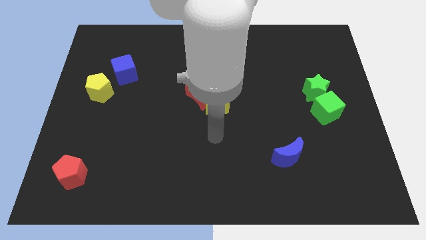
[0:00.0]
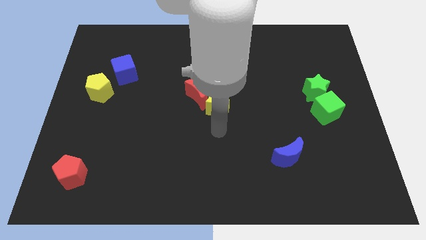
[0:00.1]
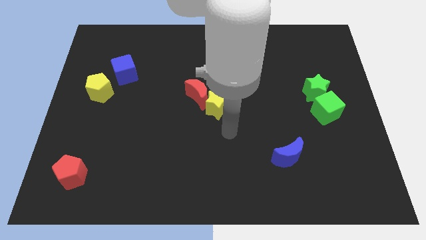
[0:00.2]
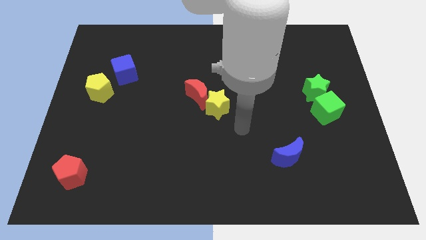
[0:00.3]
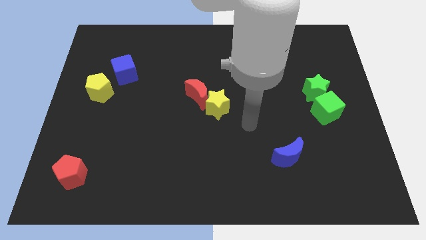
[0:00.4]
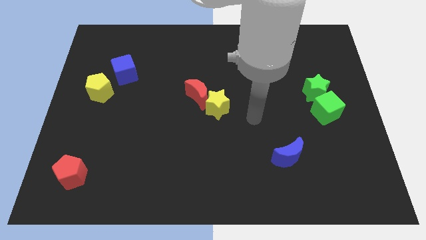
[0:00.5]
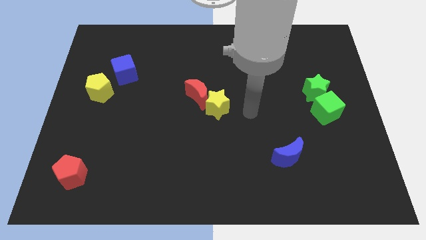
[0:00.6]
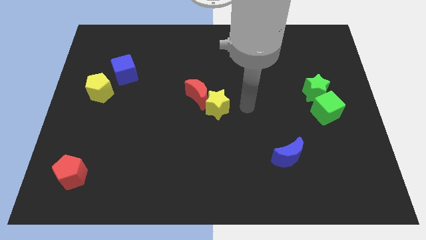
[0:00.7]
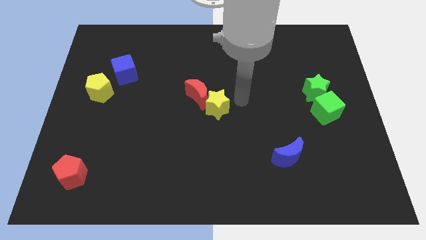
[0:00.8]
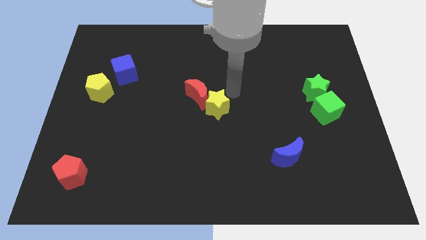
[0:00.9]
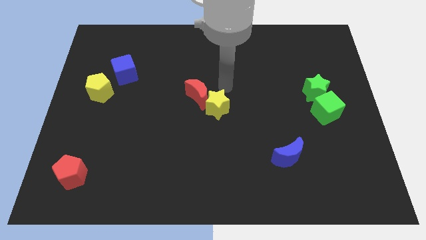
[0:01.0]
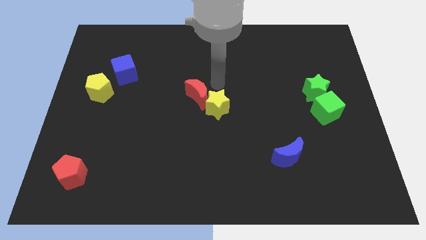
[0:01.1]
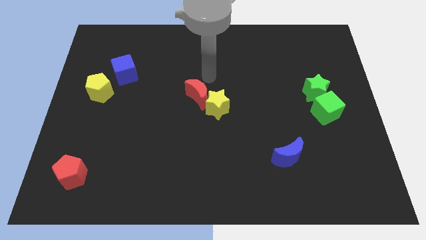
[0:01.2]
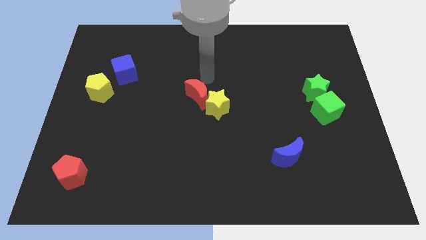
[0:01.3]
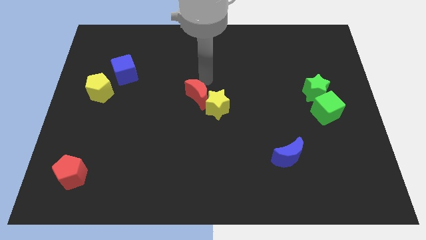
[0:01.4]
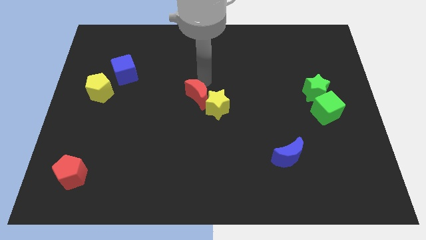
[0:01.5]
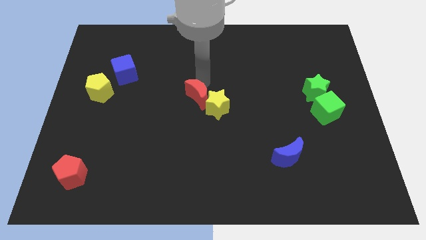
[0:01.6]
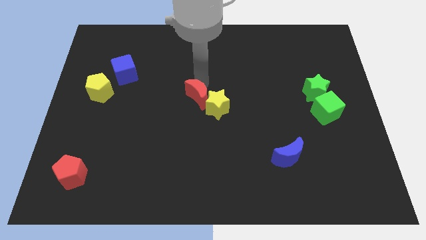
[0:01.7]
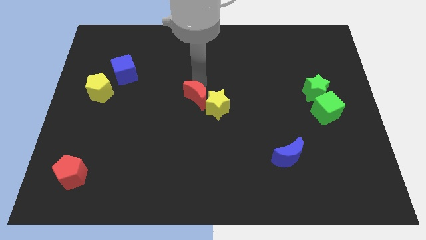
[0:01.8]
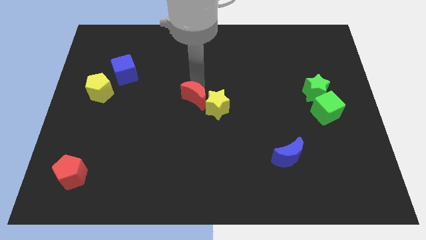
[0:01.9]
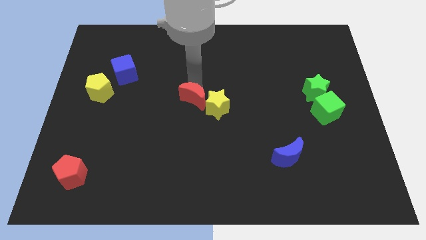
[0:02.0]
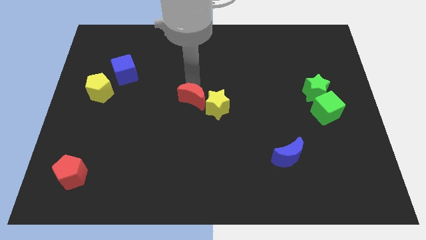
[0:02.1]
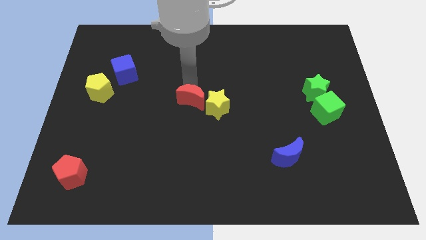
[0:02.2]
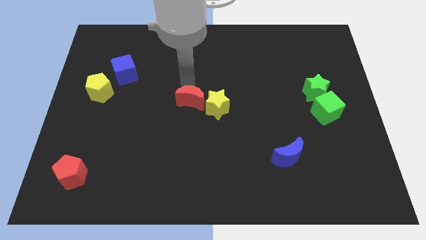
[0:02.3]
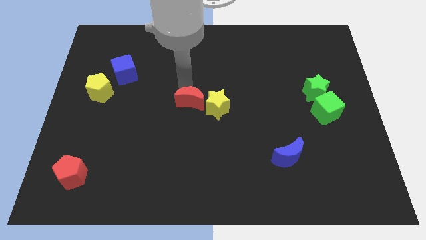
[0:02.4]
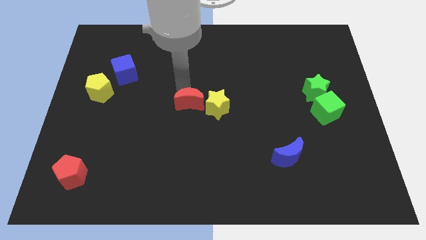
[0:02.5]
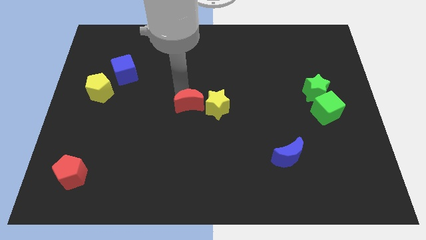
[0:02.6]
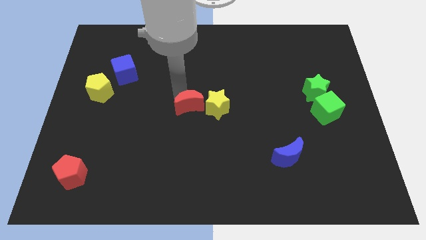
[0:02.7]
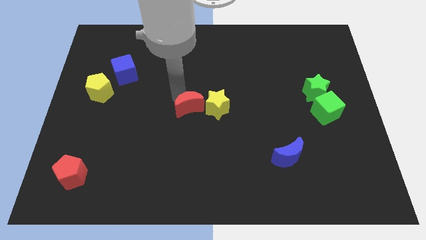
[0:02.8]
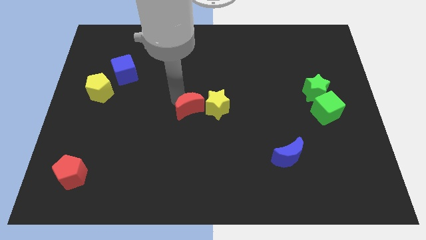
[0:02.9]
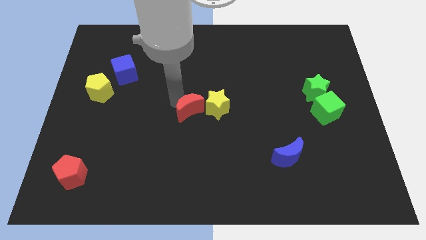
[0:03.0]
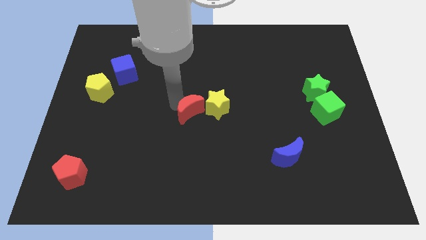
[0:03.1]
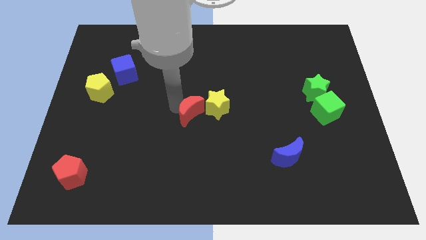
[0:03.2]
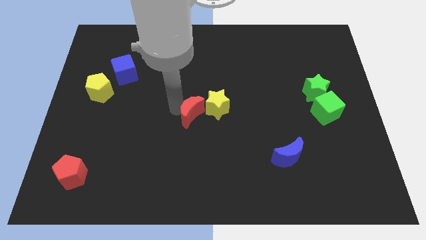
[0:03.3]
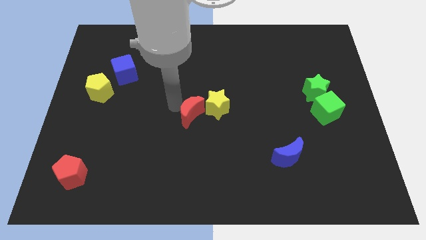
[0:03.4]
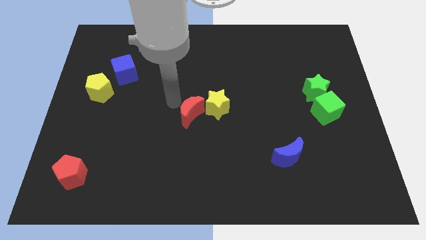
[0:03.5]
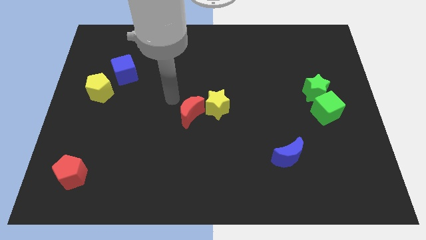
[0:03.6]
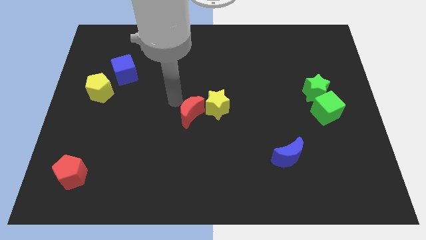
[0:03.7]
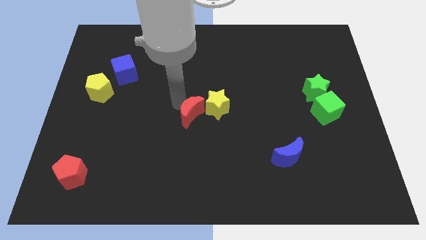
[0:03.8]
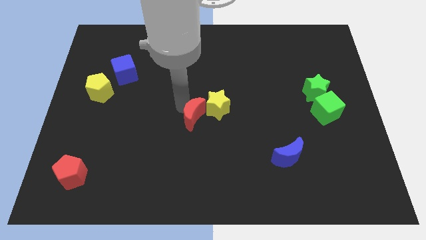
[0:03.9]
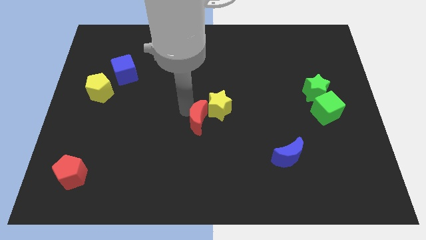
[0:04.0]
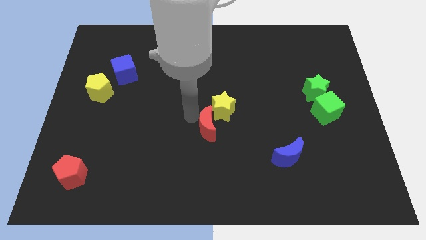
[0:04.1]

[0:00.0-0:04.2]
push the red moon a little downwards and then to the right

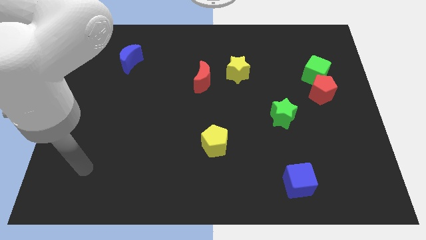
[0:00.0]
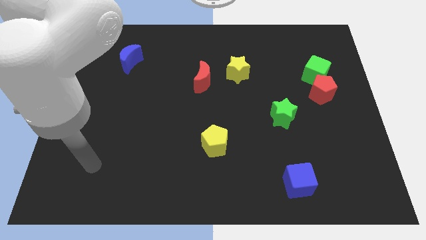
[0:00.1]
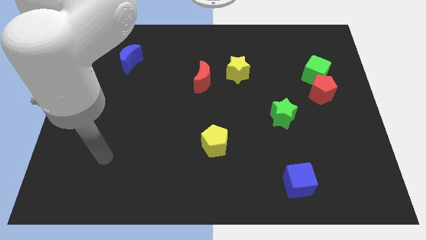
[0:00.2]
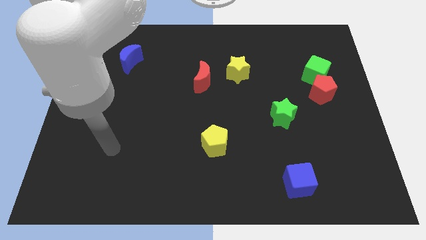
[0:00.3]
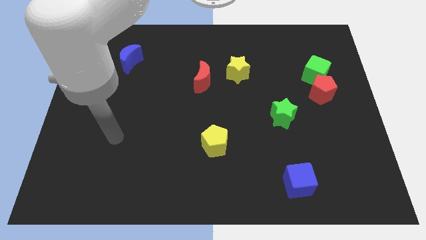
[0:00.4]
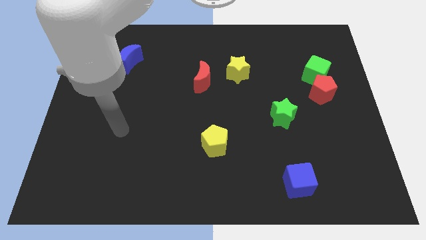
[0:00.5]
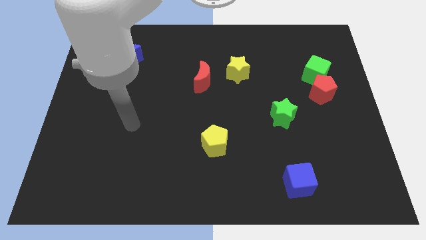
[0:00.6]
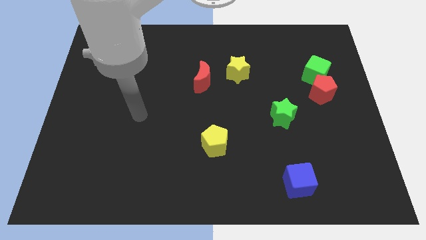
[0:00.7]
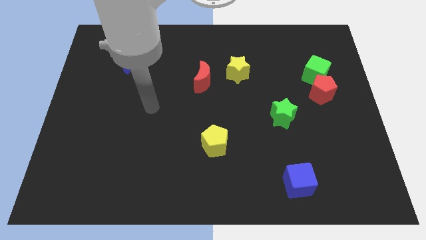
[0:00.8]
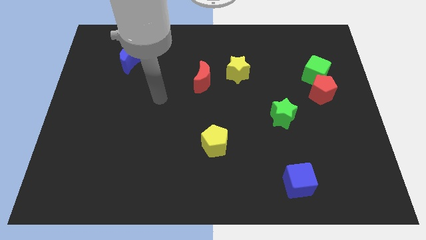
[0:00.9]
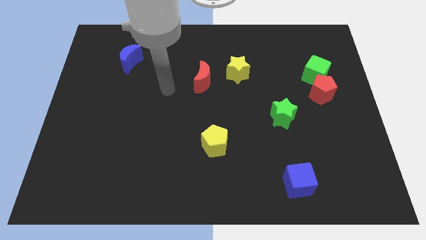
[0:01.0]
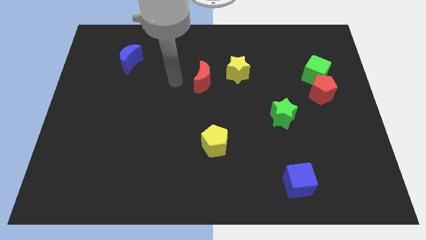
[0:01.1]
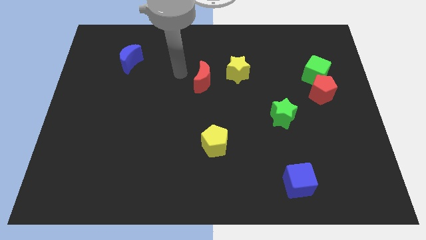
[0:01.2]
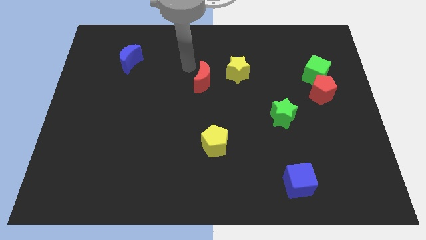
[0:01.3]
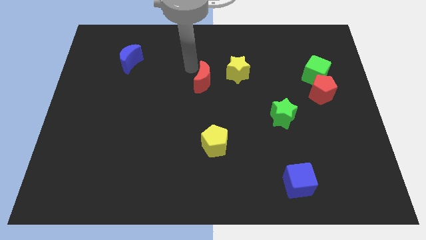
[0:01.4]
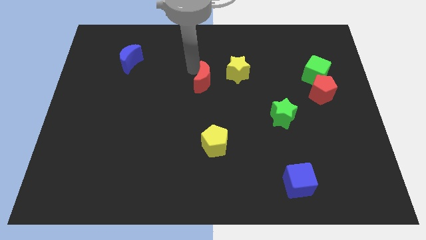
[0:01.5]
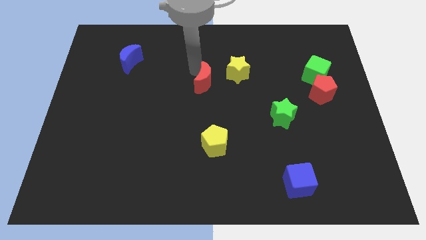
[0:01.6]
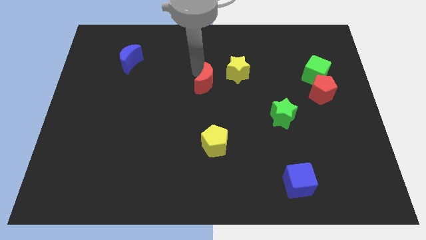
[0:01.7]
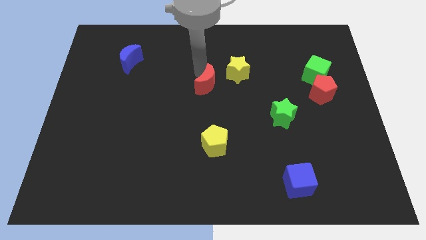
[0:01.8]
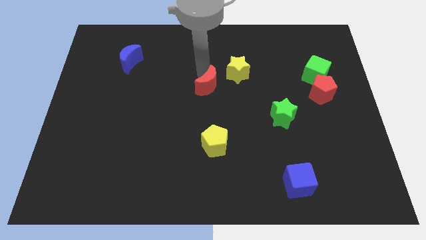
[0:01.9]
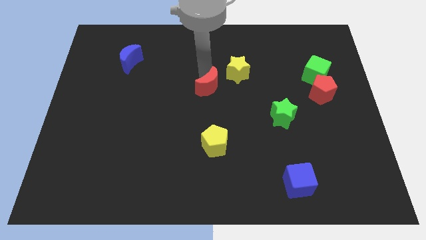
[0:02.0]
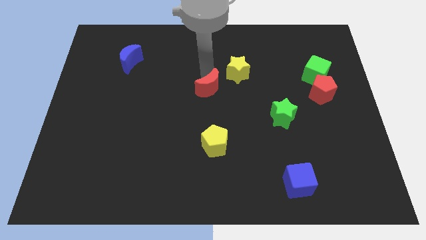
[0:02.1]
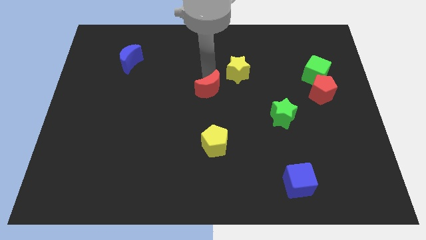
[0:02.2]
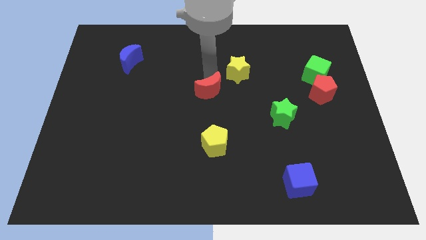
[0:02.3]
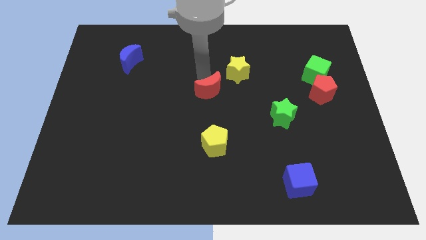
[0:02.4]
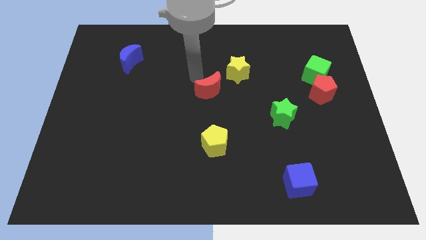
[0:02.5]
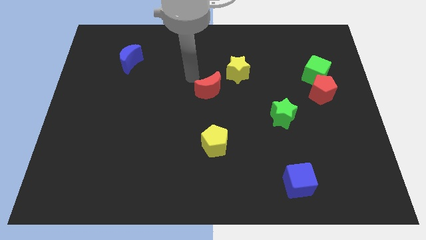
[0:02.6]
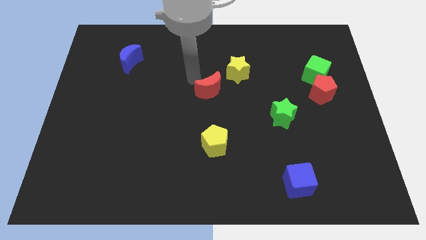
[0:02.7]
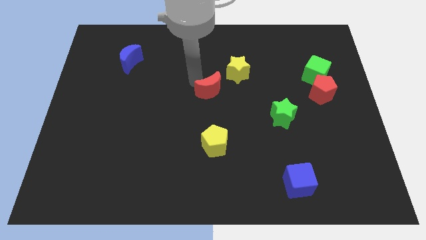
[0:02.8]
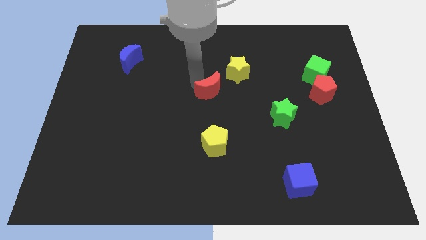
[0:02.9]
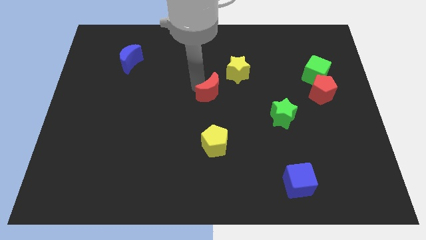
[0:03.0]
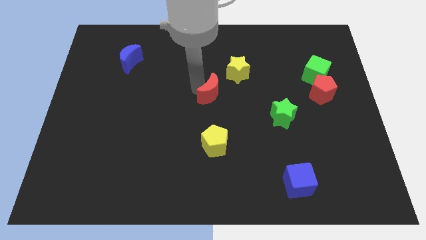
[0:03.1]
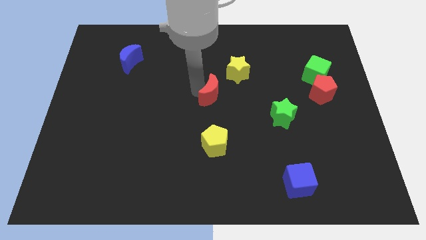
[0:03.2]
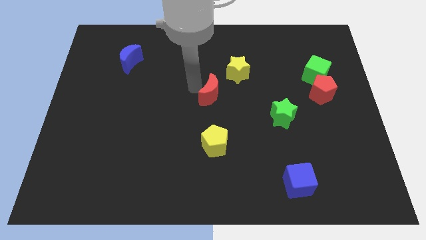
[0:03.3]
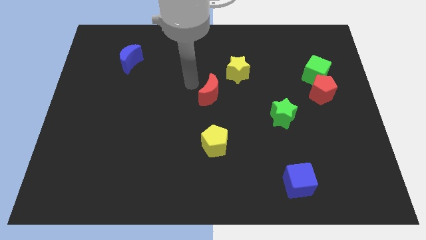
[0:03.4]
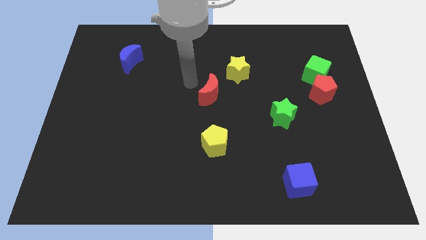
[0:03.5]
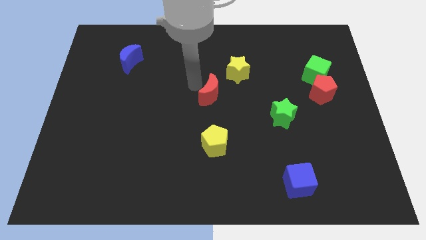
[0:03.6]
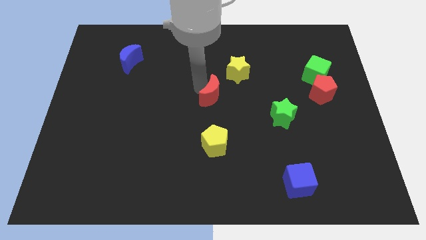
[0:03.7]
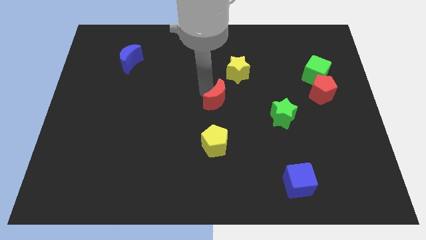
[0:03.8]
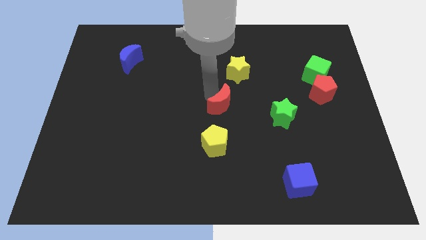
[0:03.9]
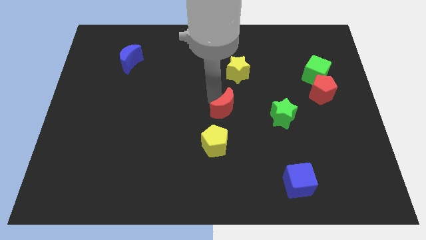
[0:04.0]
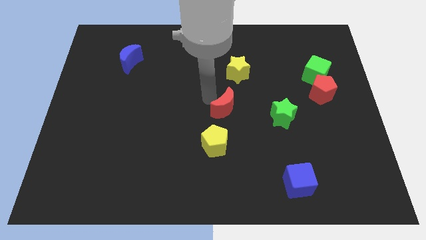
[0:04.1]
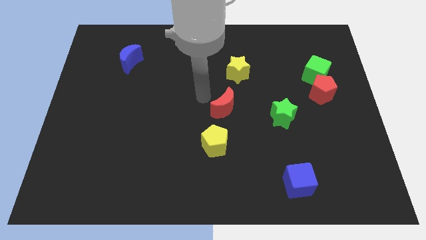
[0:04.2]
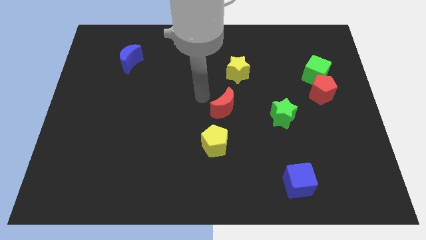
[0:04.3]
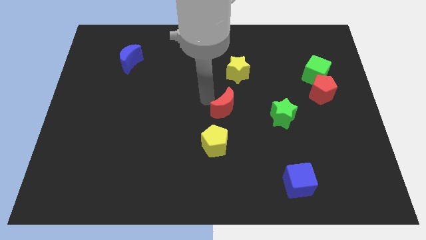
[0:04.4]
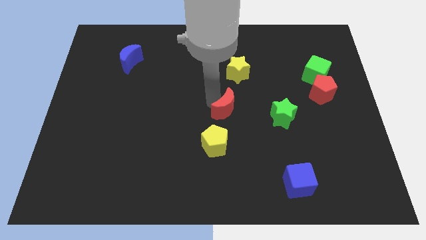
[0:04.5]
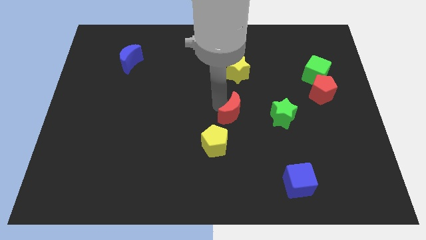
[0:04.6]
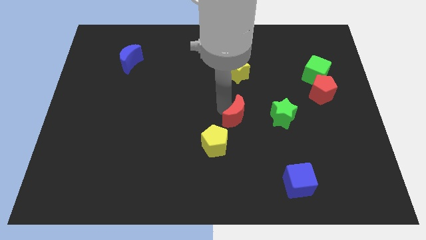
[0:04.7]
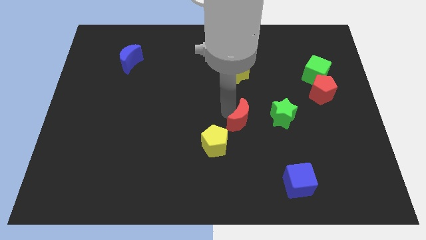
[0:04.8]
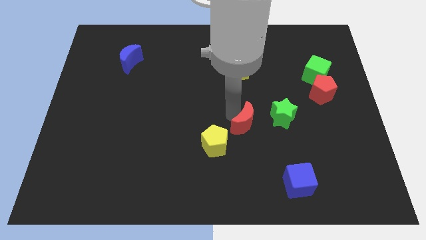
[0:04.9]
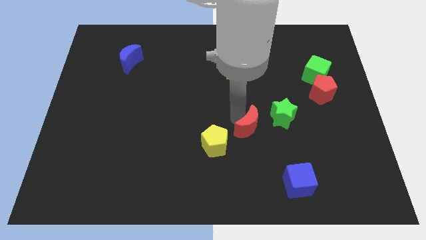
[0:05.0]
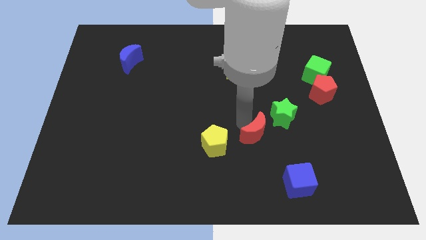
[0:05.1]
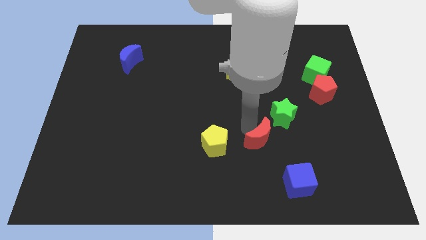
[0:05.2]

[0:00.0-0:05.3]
move the red moon diagonally down and to the right
